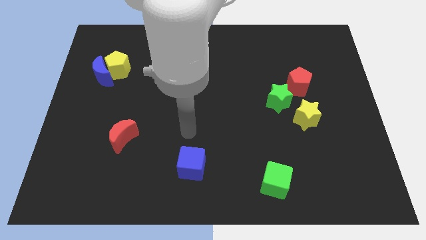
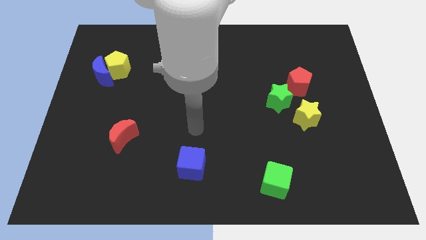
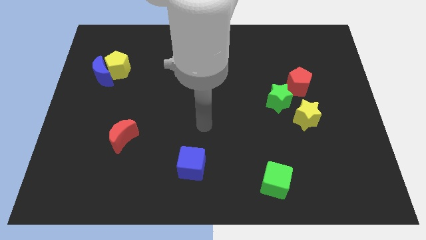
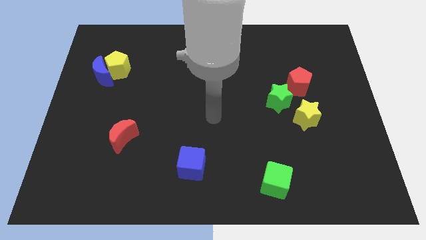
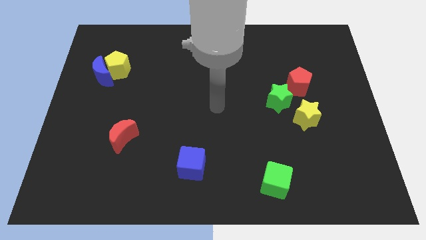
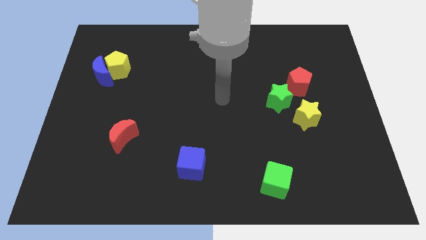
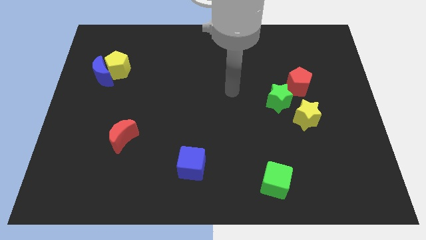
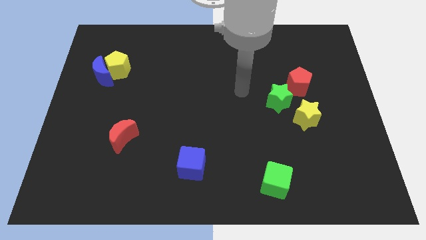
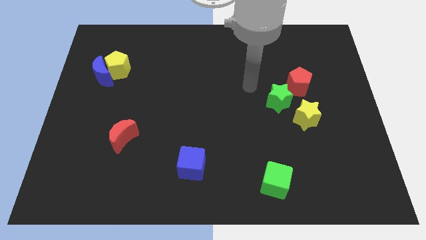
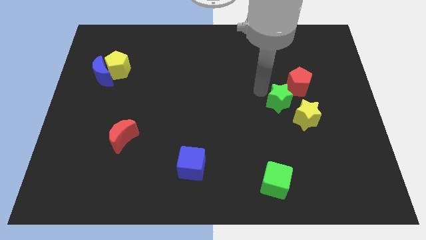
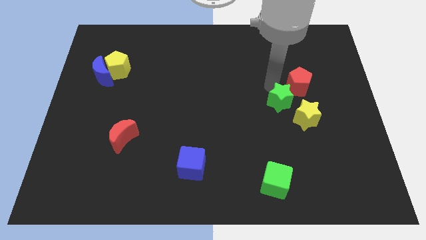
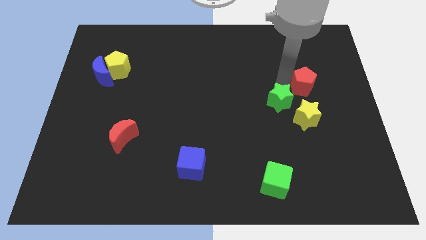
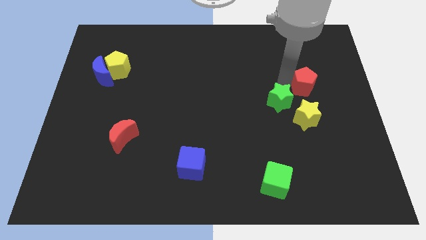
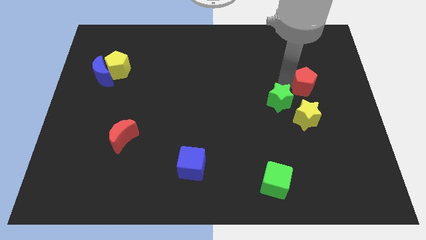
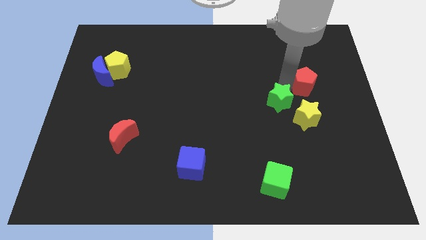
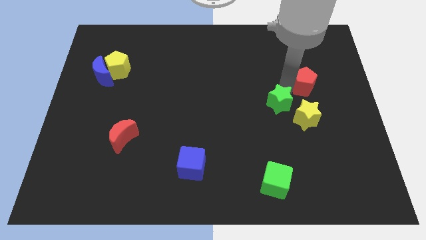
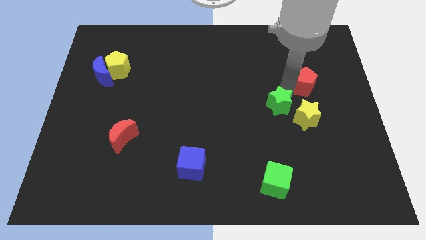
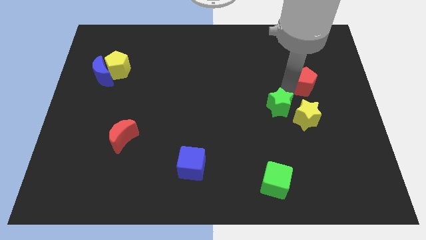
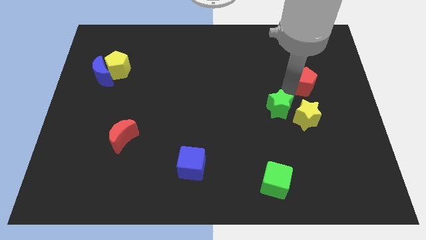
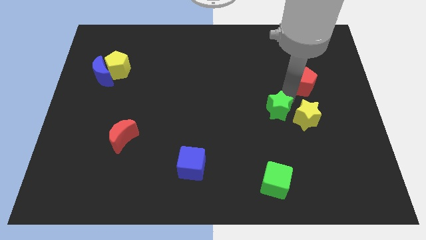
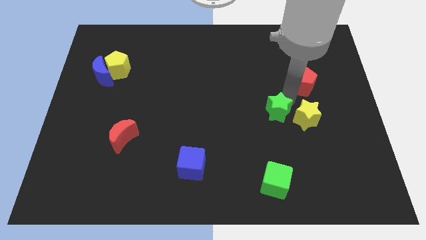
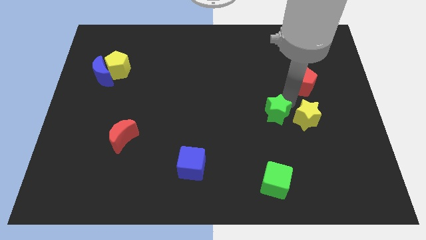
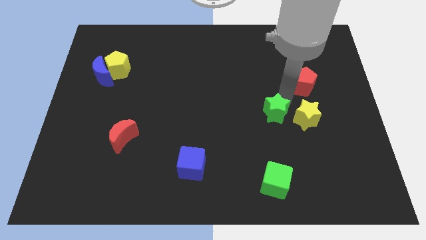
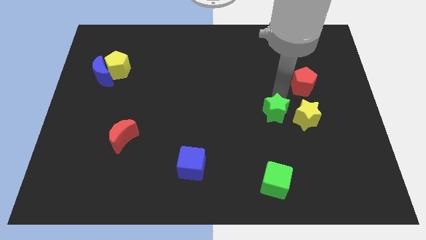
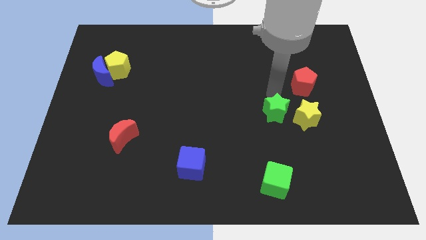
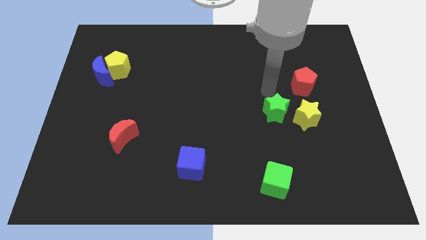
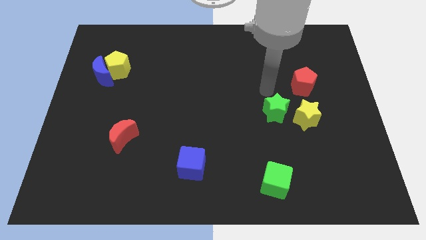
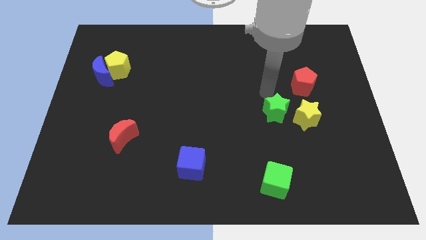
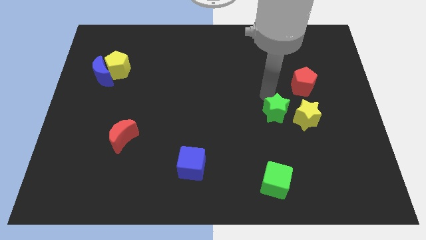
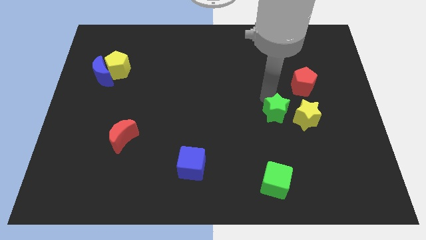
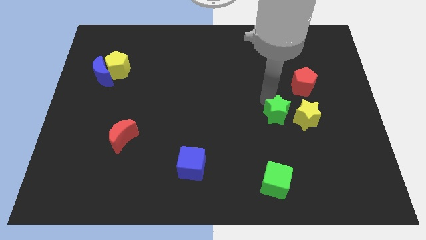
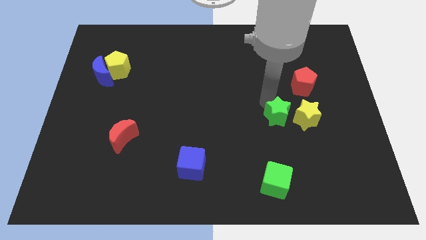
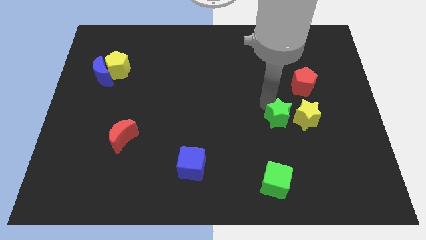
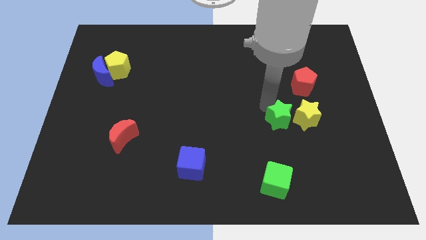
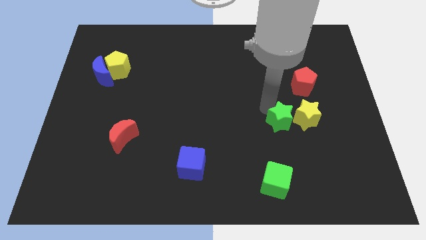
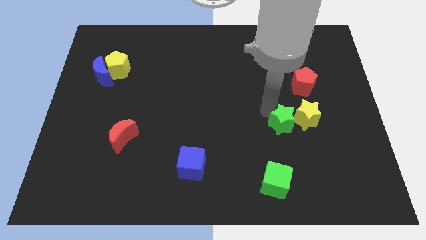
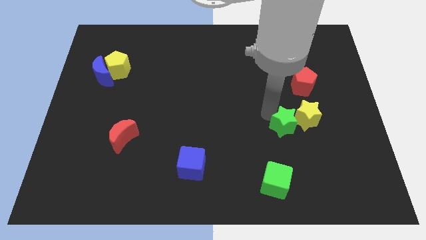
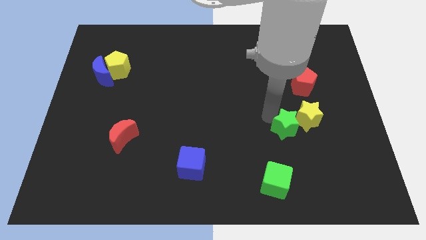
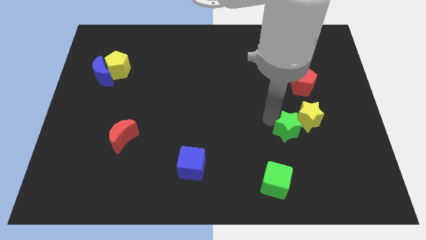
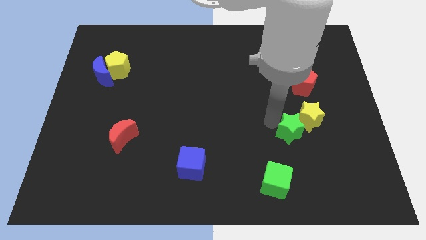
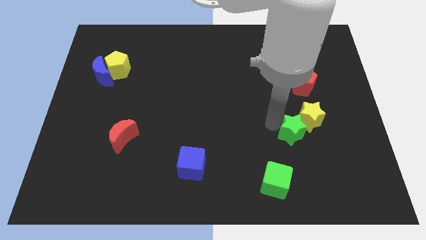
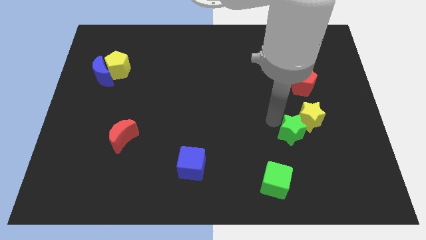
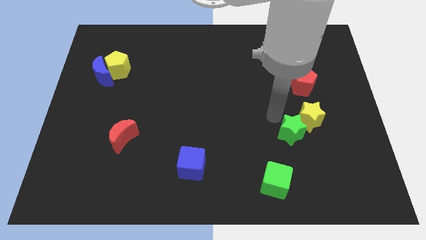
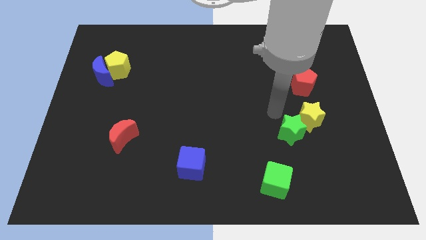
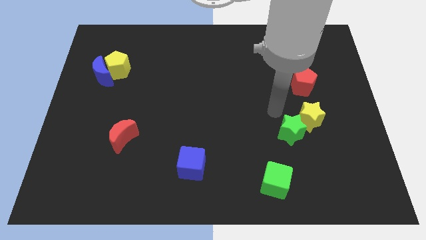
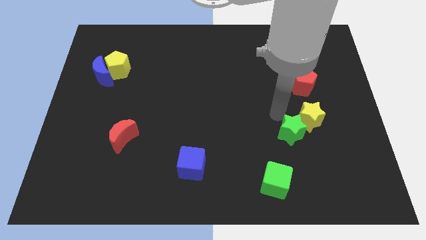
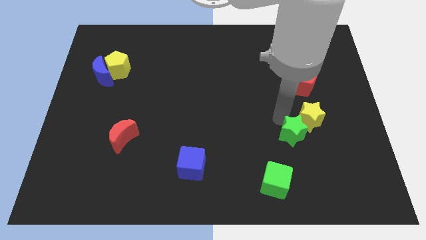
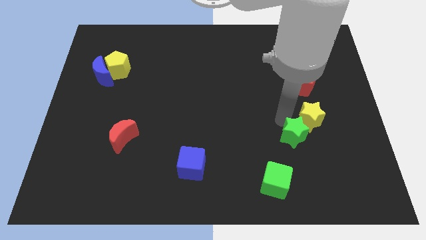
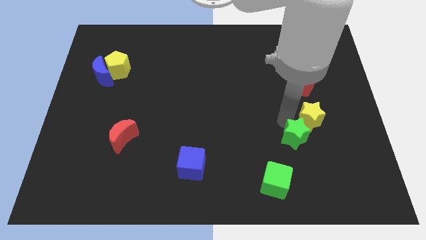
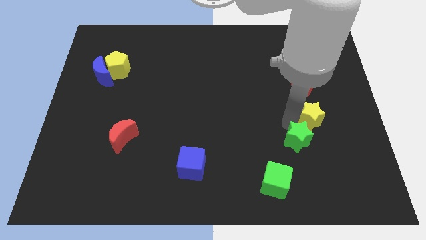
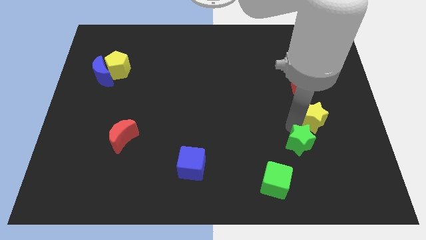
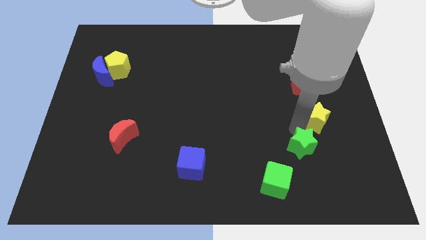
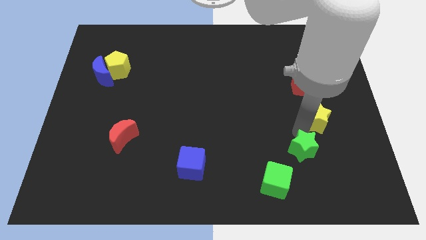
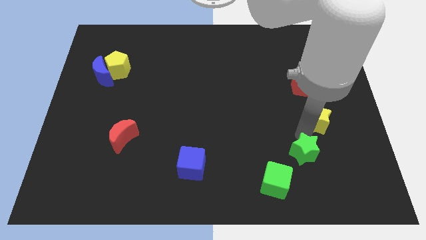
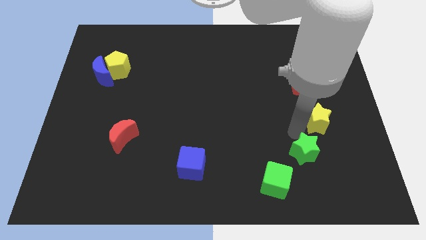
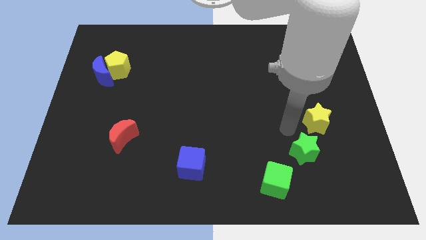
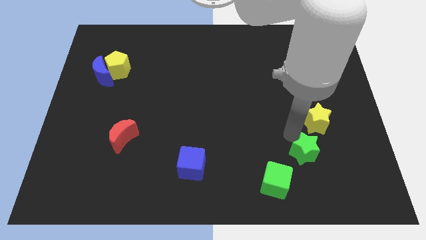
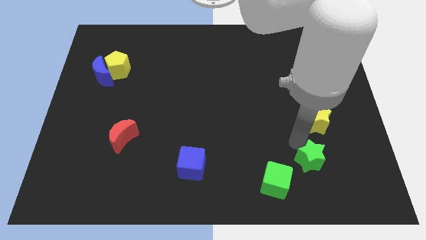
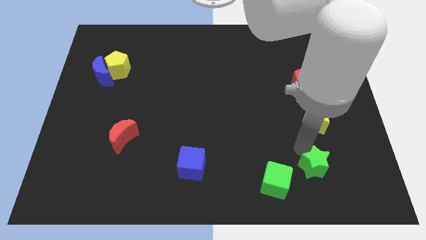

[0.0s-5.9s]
put the green star to the right side of the green cube

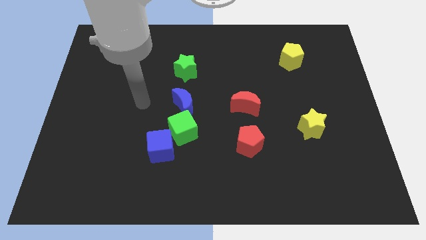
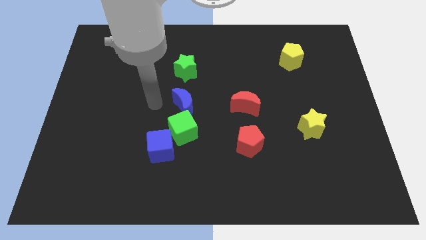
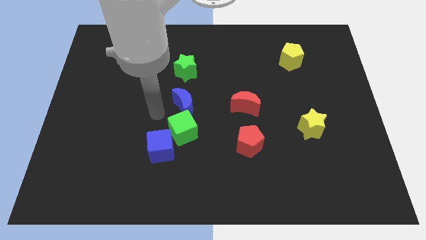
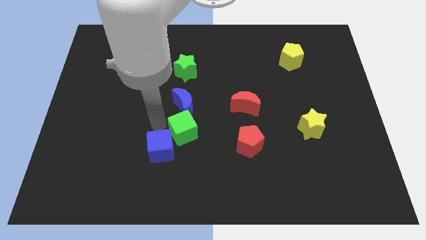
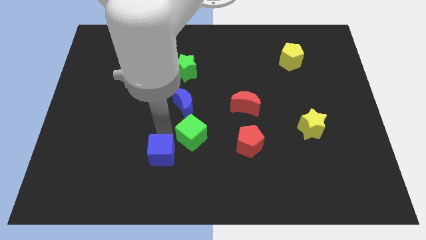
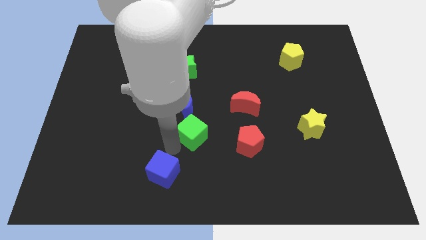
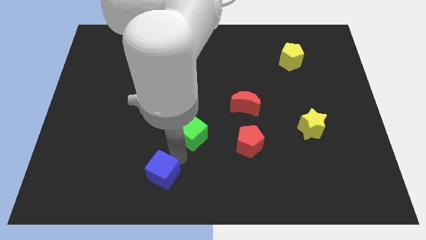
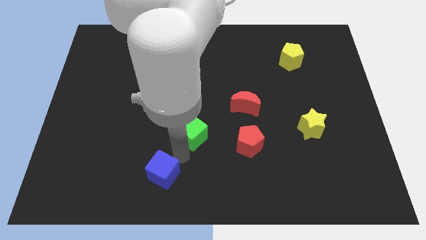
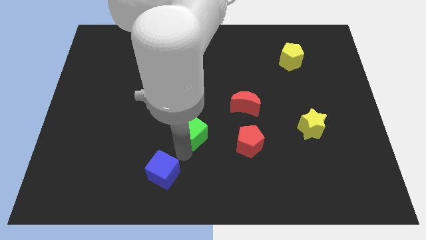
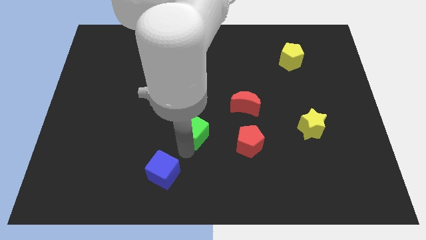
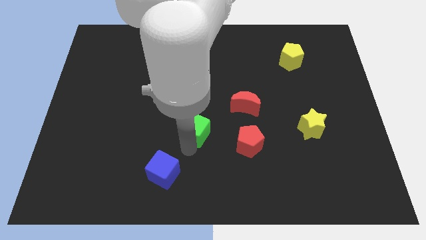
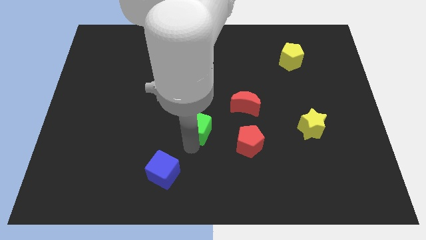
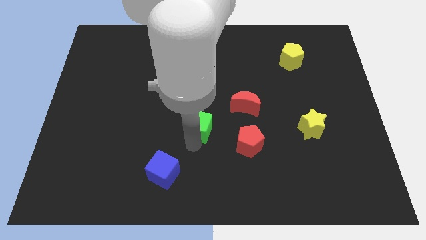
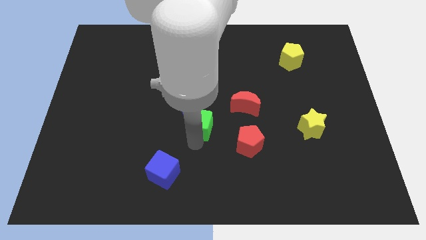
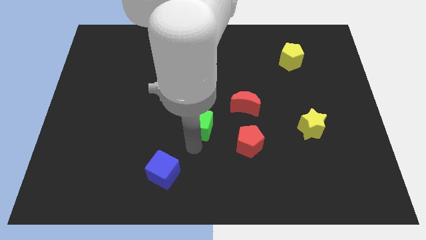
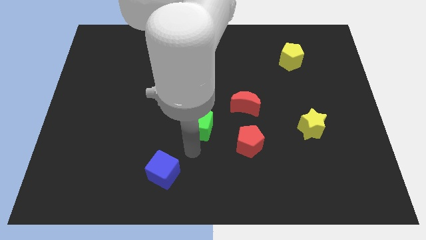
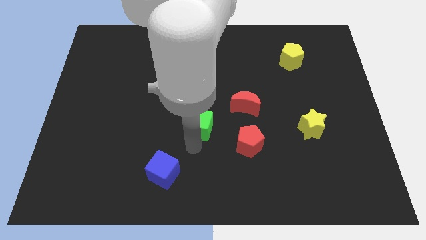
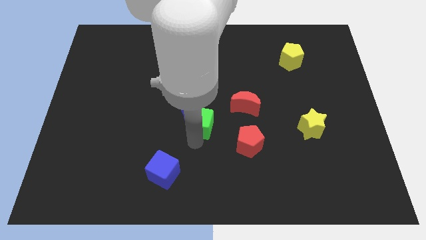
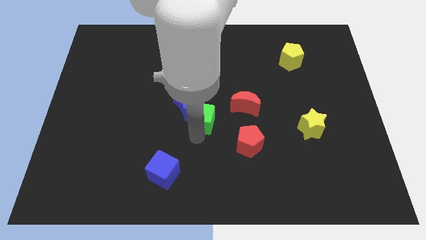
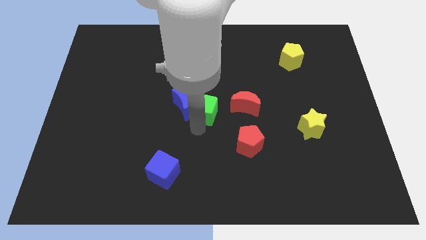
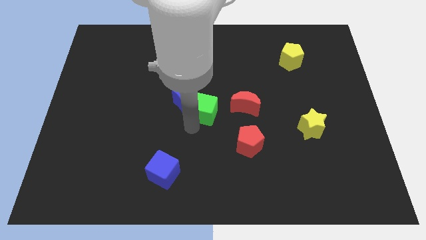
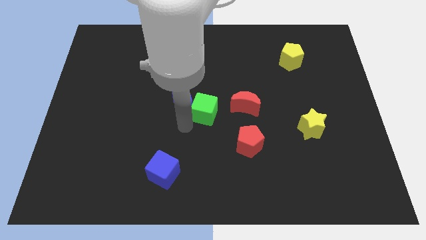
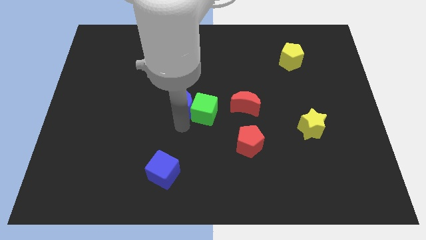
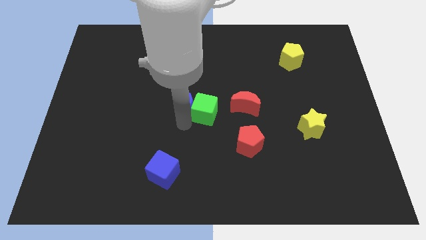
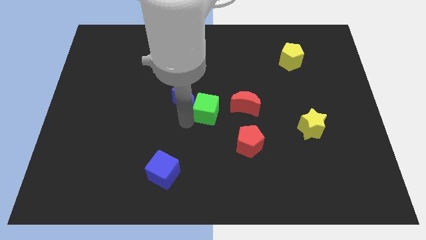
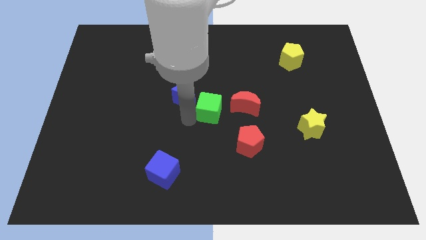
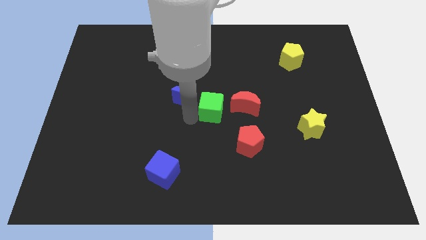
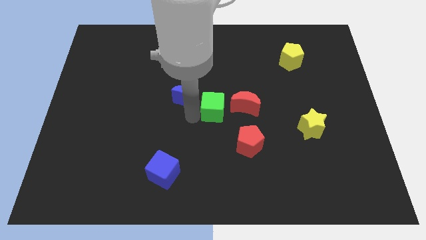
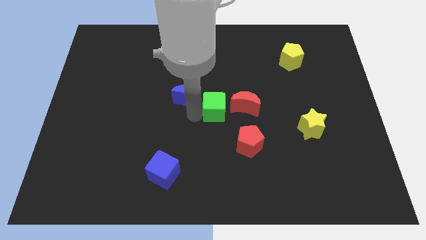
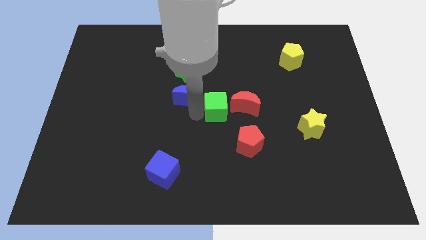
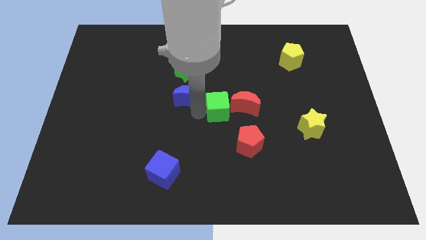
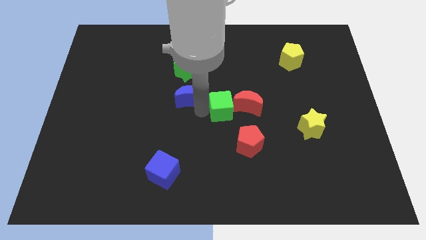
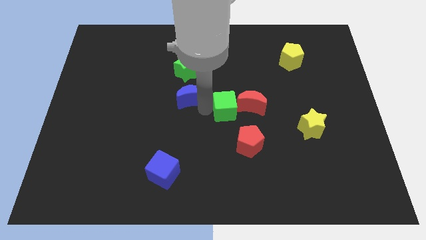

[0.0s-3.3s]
push the green cube to the top of the red pentagon
